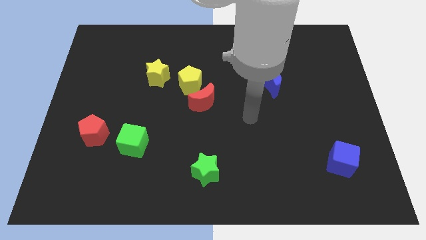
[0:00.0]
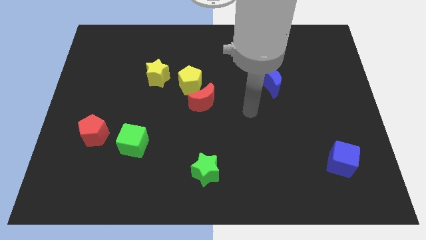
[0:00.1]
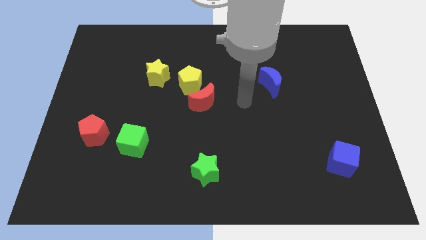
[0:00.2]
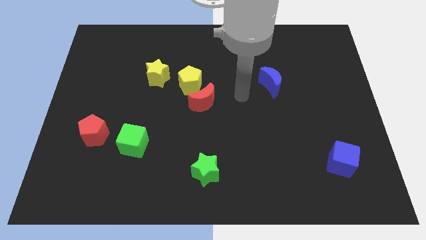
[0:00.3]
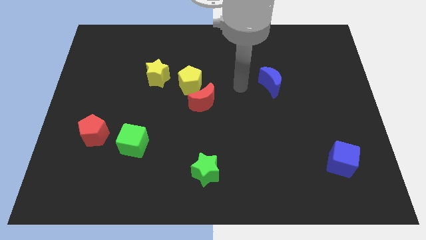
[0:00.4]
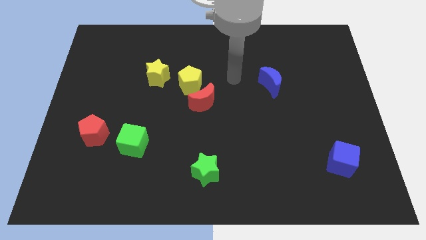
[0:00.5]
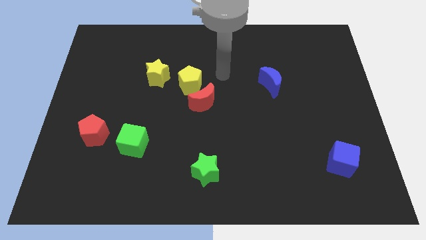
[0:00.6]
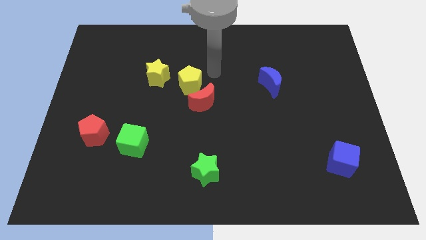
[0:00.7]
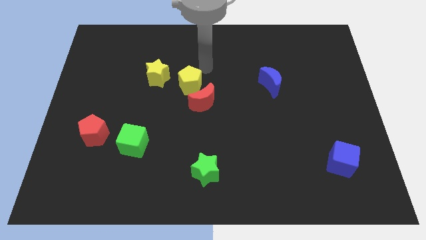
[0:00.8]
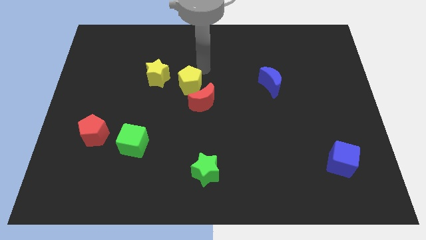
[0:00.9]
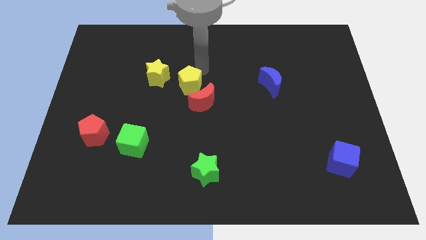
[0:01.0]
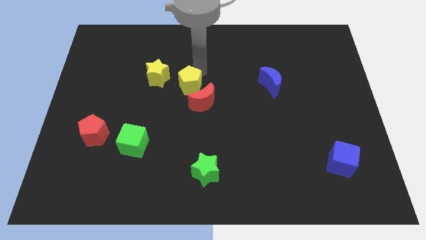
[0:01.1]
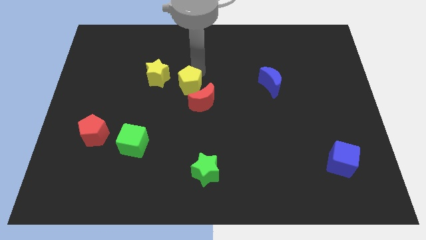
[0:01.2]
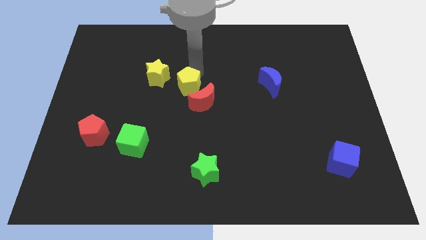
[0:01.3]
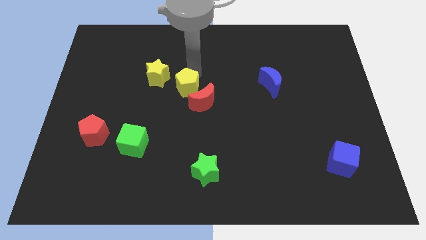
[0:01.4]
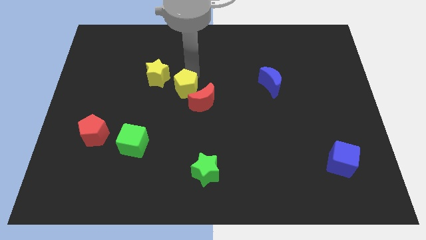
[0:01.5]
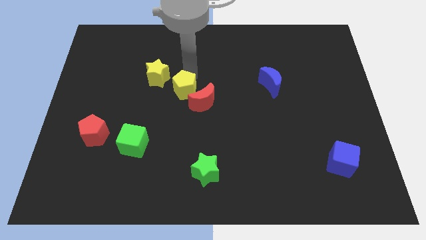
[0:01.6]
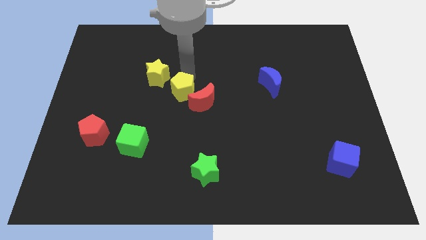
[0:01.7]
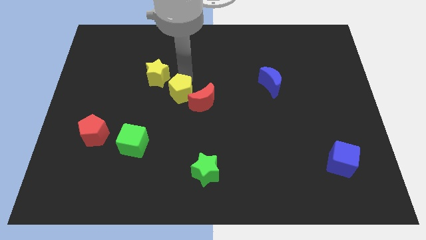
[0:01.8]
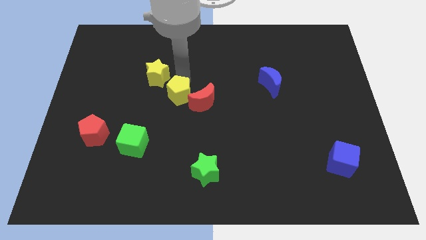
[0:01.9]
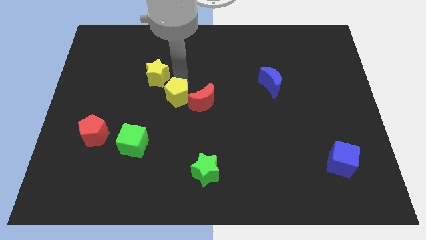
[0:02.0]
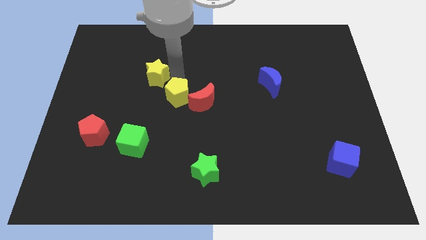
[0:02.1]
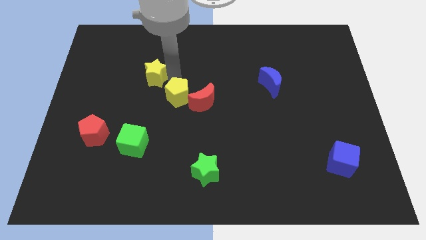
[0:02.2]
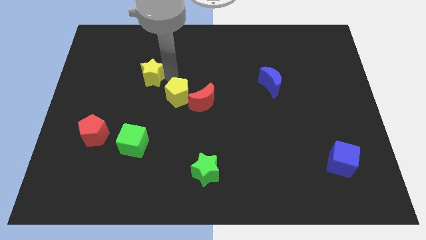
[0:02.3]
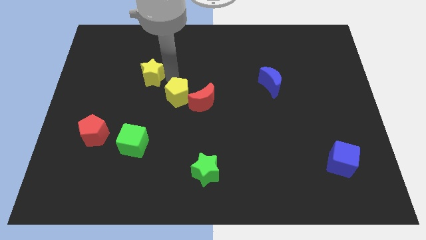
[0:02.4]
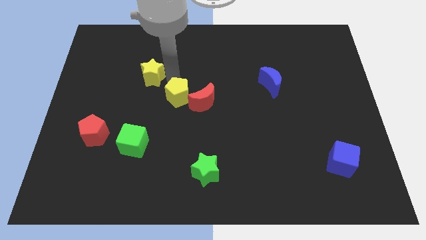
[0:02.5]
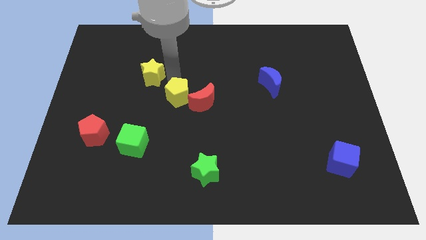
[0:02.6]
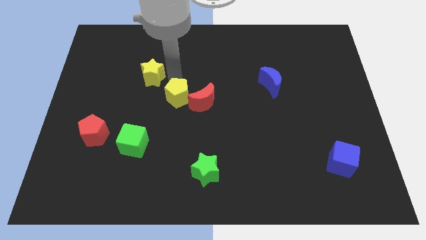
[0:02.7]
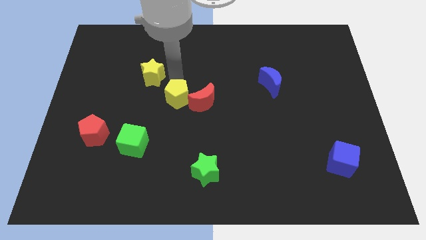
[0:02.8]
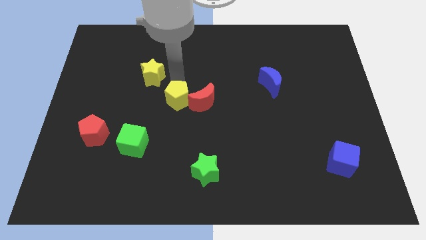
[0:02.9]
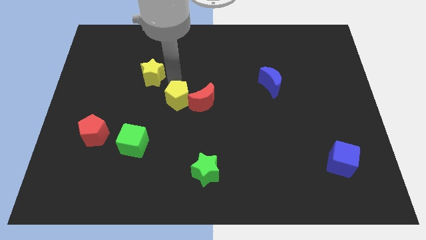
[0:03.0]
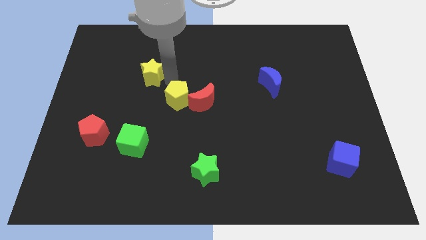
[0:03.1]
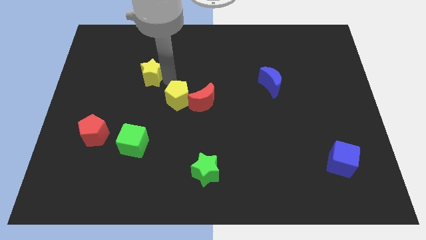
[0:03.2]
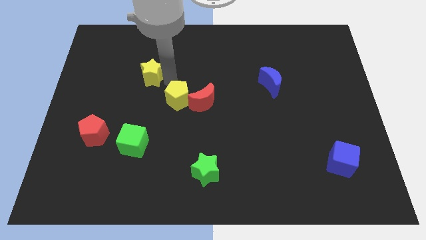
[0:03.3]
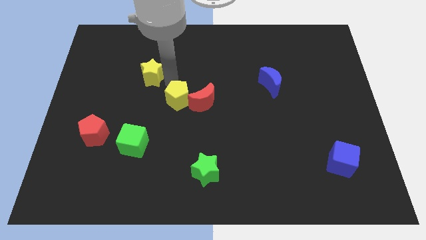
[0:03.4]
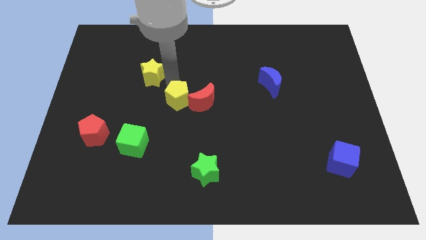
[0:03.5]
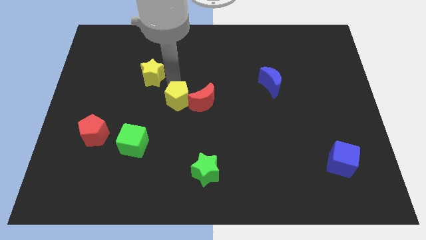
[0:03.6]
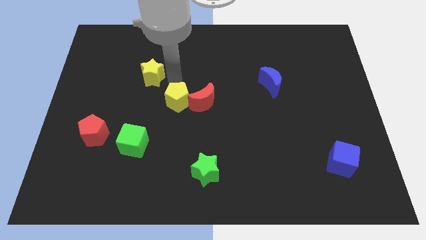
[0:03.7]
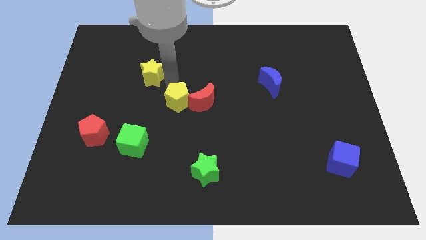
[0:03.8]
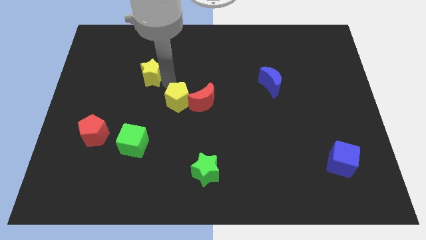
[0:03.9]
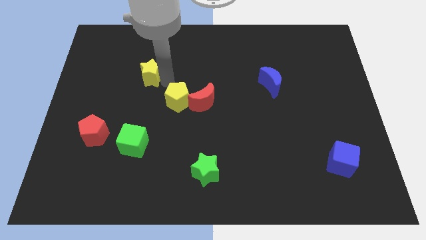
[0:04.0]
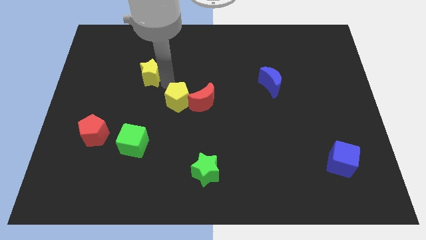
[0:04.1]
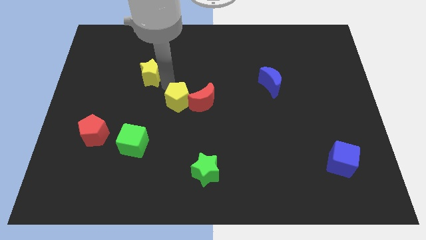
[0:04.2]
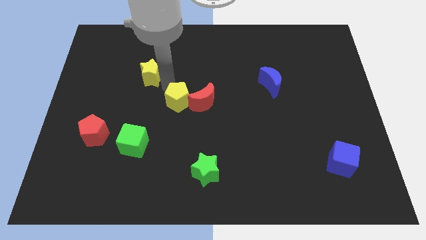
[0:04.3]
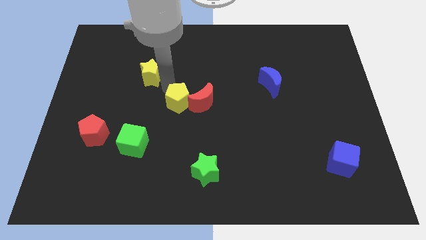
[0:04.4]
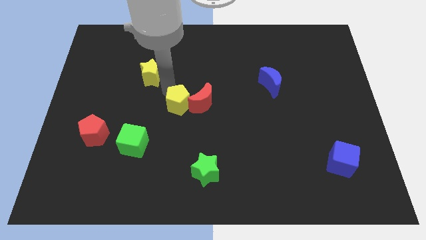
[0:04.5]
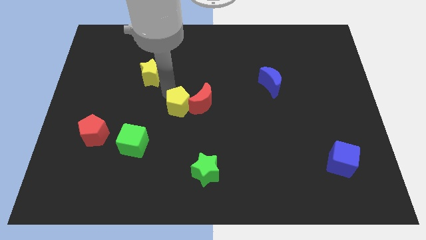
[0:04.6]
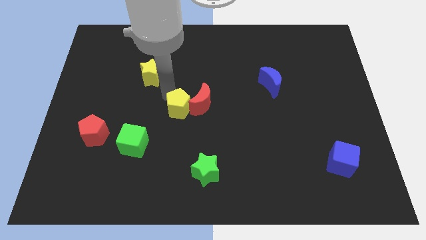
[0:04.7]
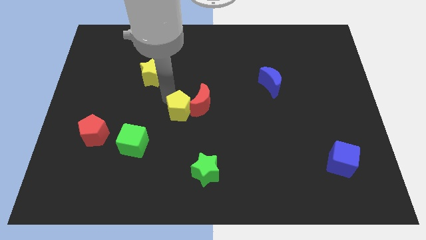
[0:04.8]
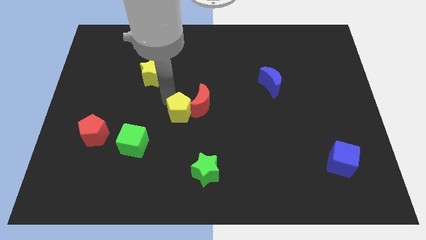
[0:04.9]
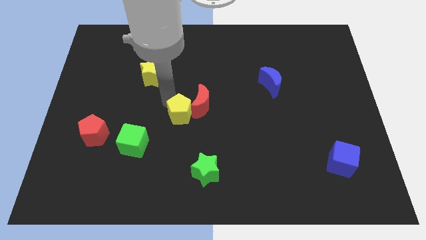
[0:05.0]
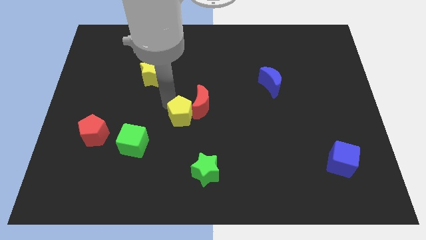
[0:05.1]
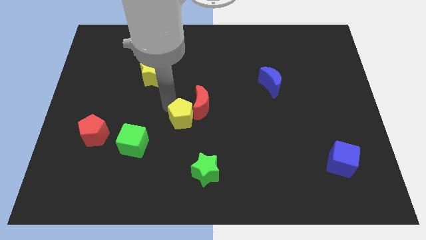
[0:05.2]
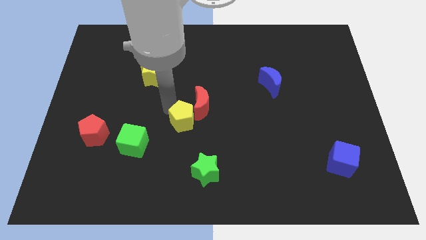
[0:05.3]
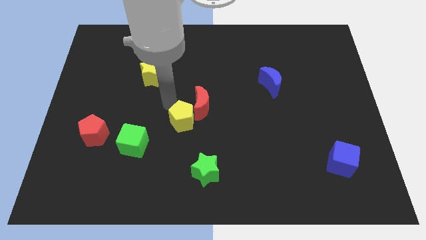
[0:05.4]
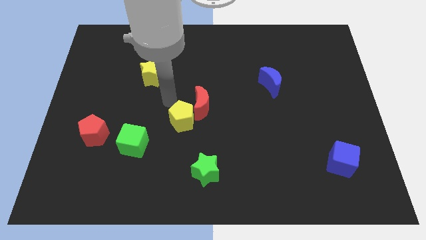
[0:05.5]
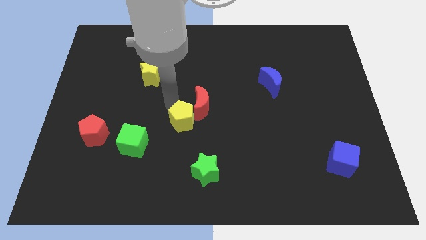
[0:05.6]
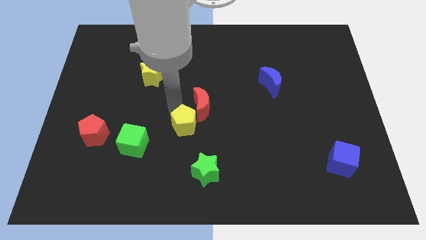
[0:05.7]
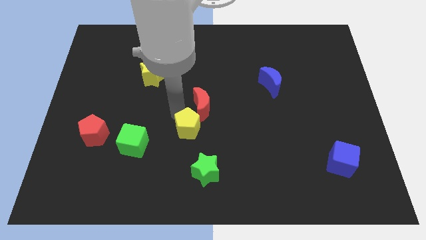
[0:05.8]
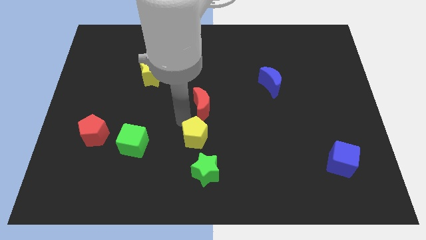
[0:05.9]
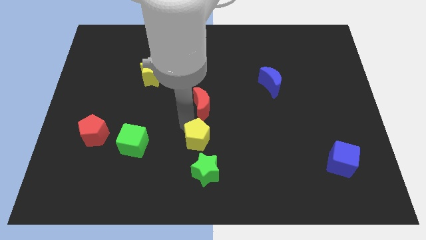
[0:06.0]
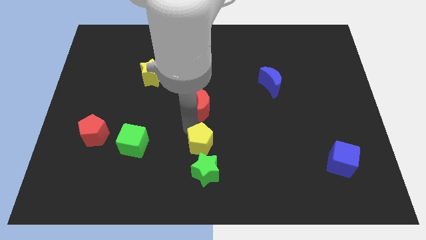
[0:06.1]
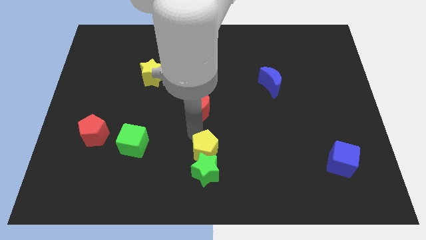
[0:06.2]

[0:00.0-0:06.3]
push the yellow pentagon towards the green star

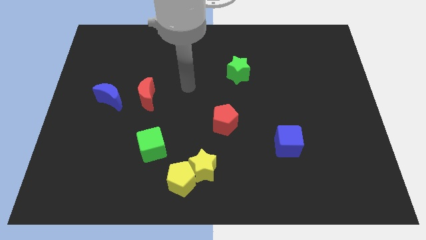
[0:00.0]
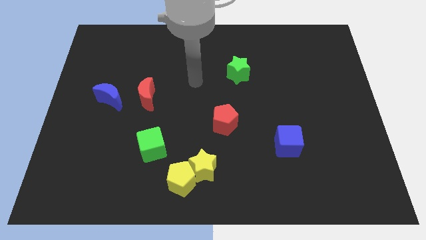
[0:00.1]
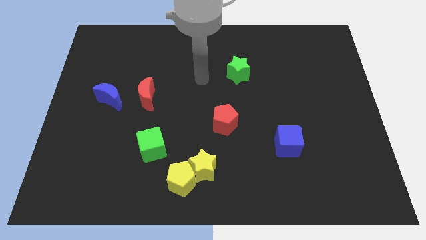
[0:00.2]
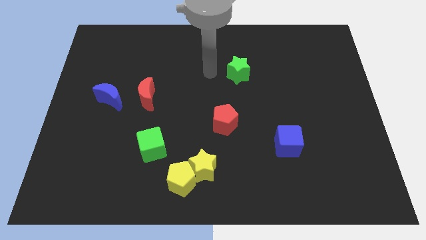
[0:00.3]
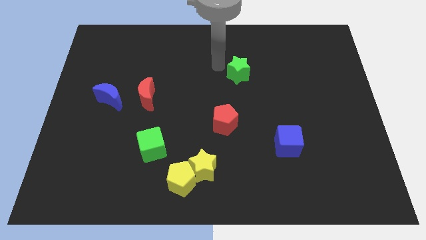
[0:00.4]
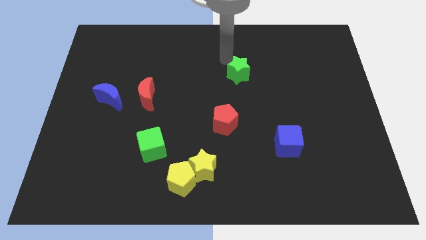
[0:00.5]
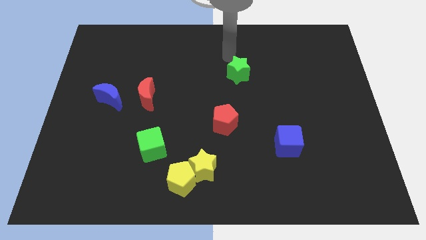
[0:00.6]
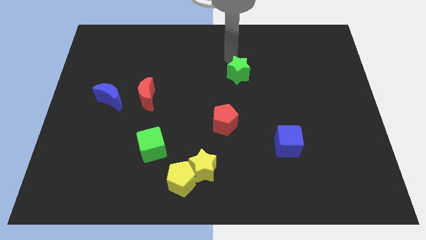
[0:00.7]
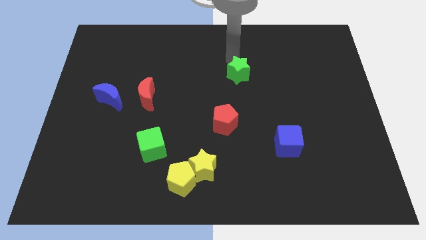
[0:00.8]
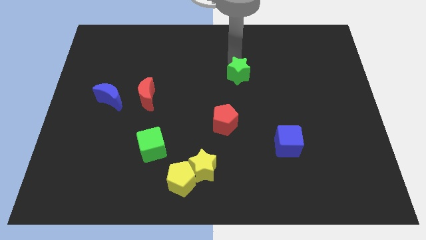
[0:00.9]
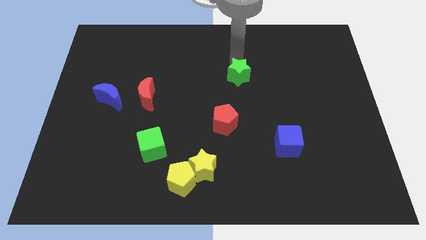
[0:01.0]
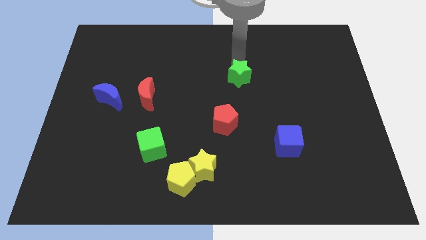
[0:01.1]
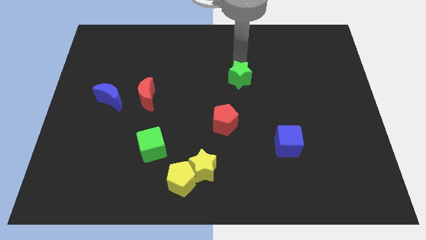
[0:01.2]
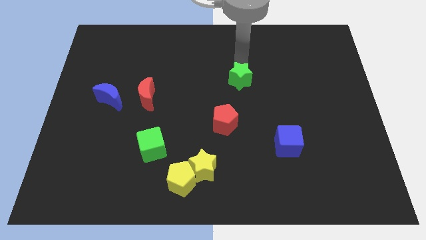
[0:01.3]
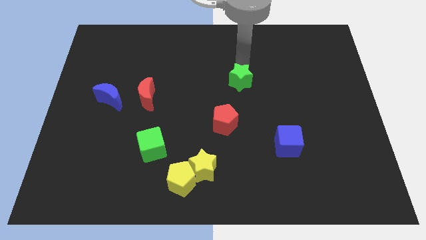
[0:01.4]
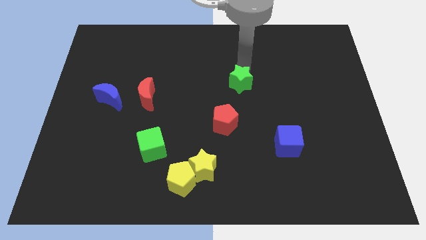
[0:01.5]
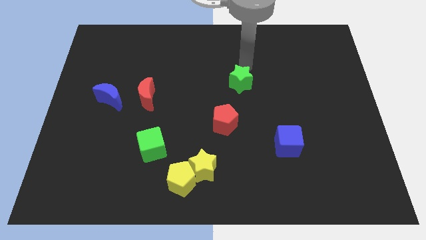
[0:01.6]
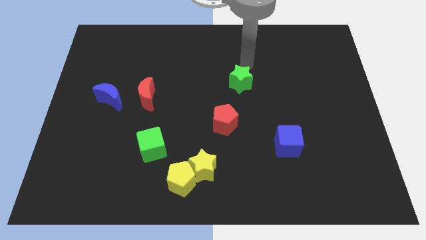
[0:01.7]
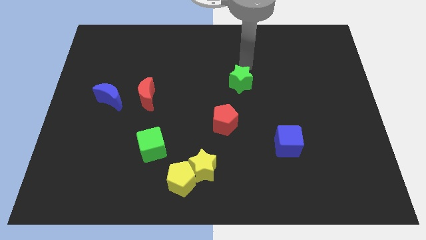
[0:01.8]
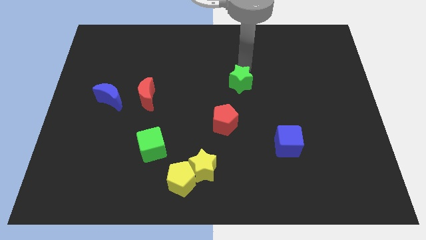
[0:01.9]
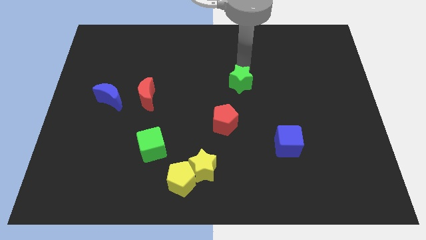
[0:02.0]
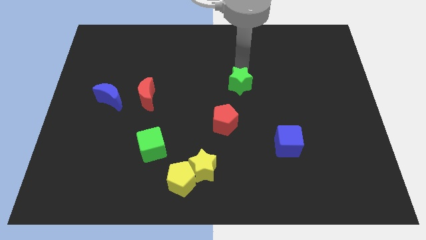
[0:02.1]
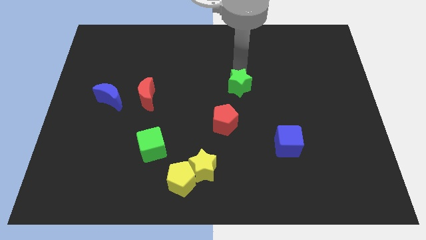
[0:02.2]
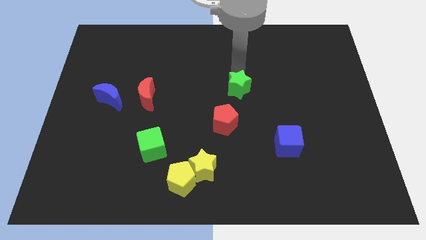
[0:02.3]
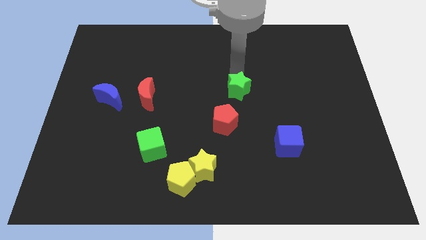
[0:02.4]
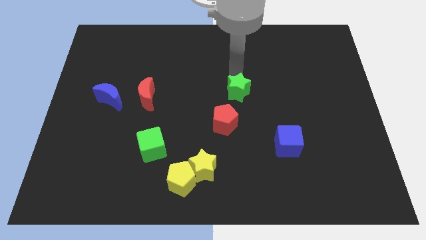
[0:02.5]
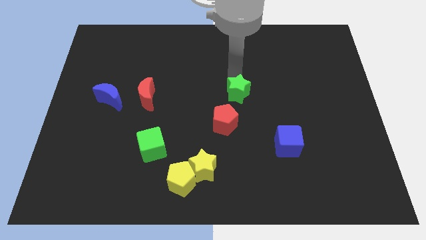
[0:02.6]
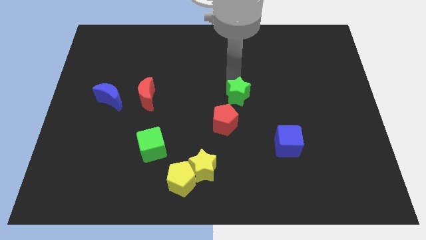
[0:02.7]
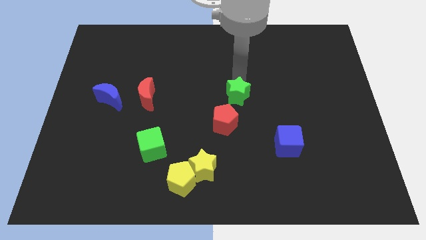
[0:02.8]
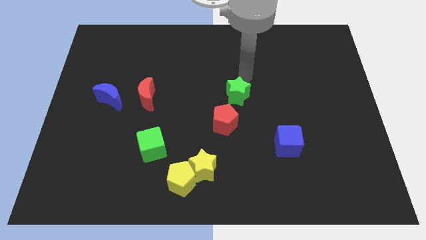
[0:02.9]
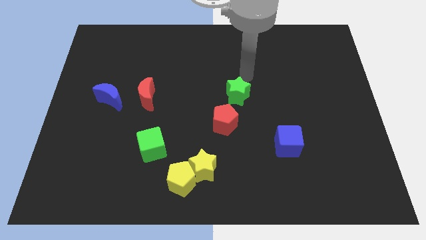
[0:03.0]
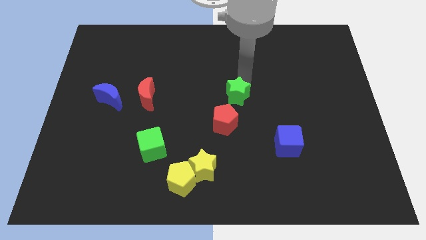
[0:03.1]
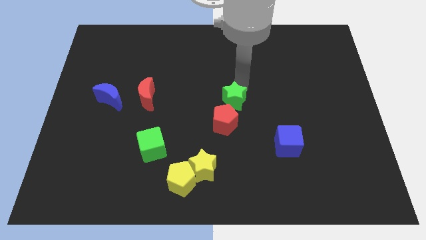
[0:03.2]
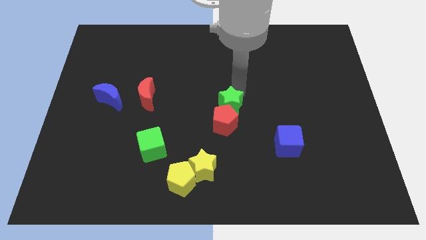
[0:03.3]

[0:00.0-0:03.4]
put the green star towards the red pentagon
